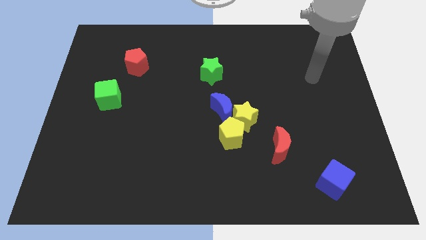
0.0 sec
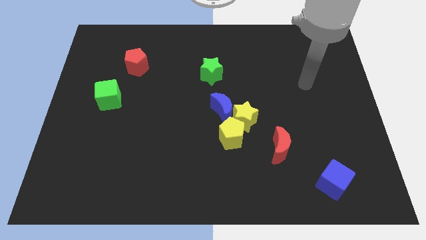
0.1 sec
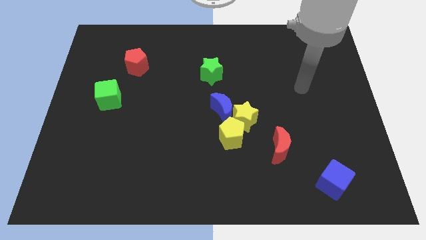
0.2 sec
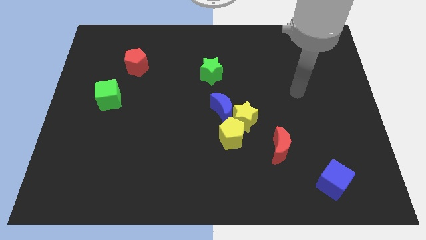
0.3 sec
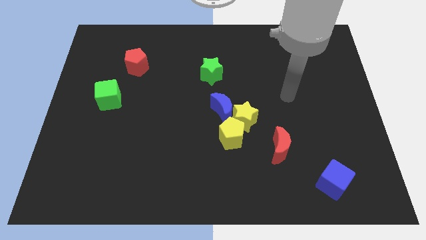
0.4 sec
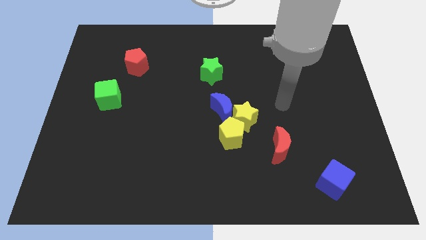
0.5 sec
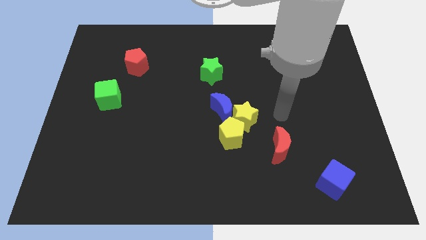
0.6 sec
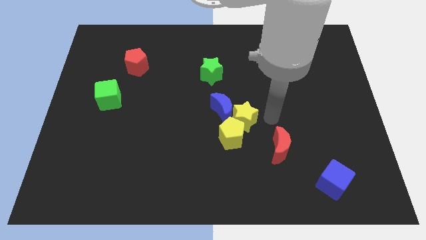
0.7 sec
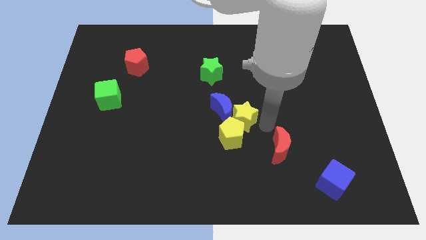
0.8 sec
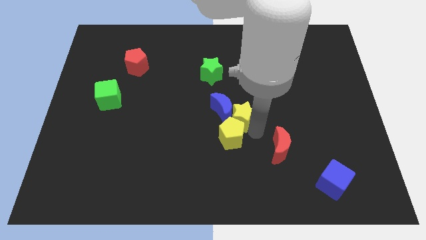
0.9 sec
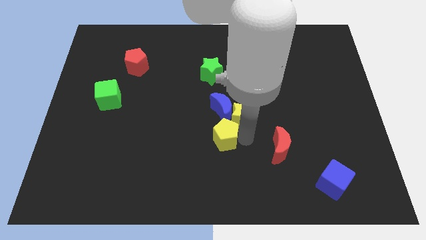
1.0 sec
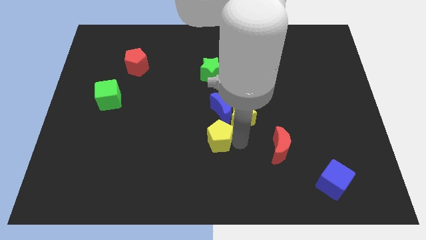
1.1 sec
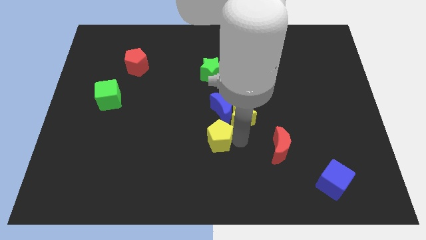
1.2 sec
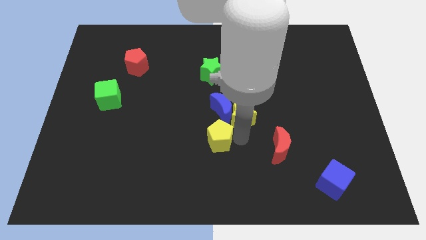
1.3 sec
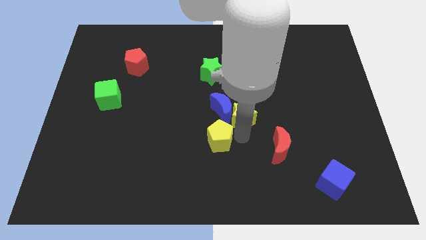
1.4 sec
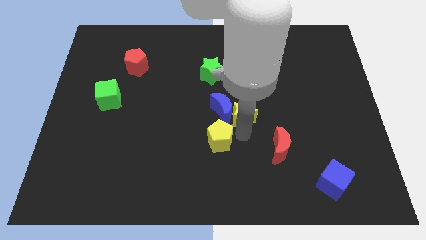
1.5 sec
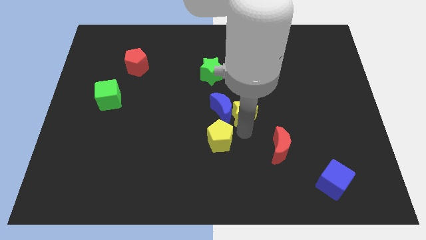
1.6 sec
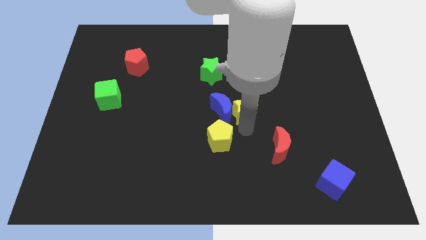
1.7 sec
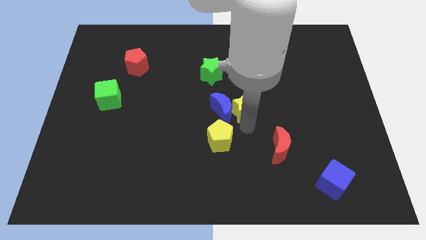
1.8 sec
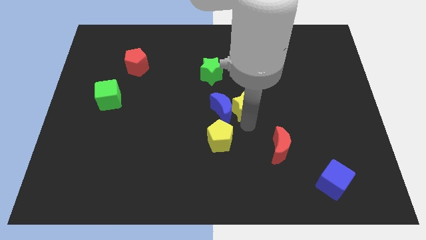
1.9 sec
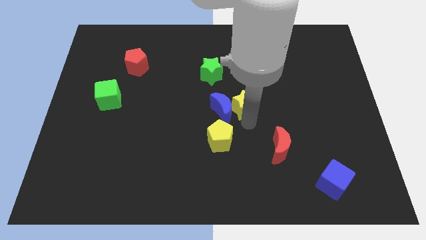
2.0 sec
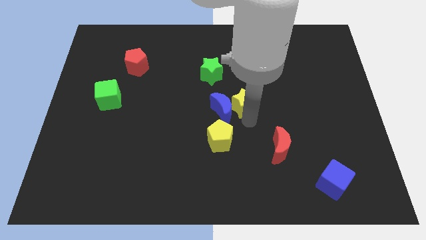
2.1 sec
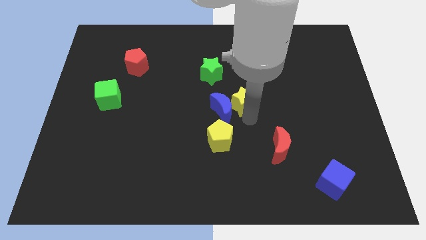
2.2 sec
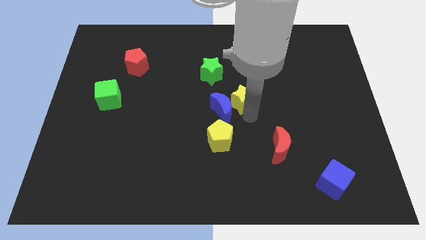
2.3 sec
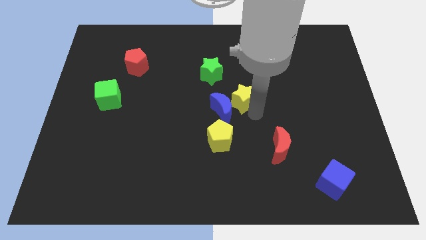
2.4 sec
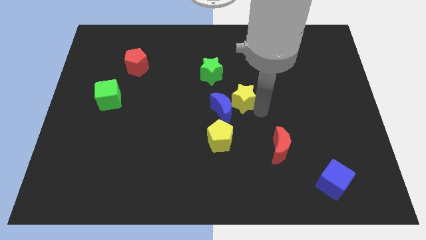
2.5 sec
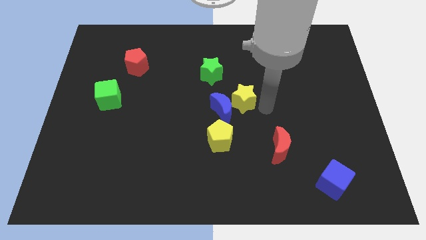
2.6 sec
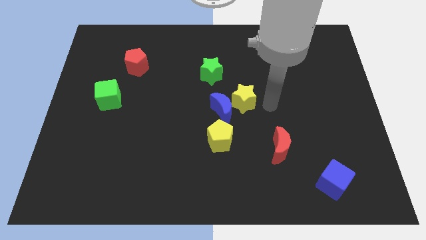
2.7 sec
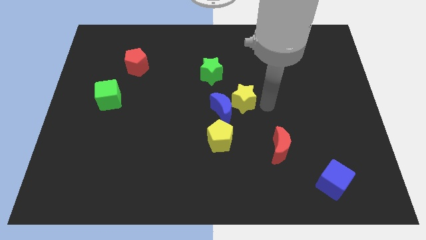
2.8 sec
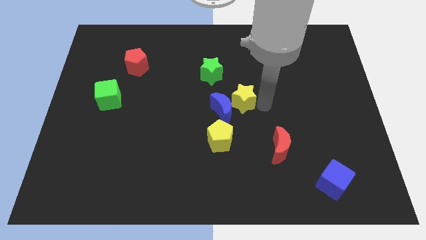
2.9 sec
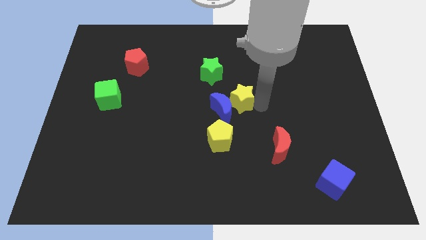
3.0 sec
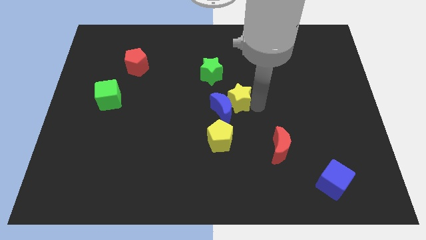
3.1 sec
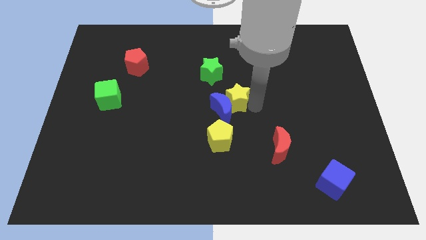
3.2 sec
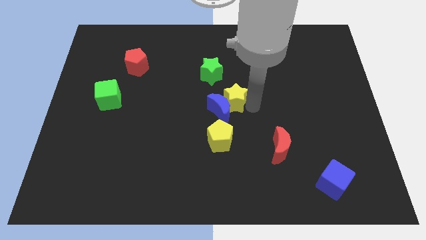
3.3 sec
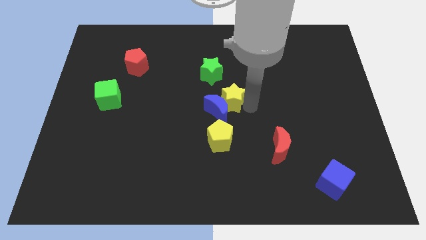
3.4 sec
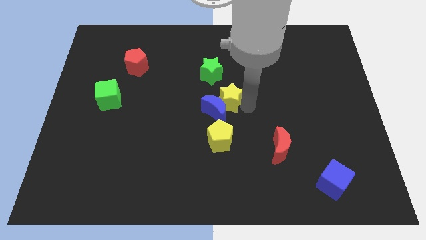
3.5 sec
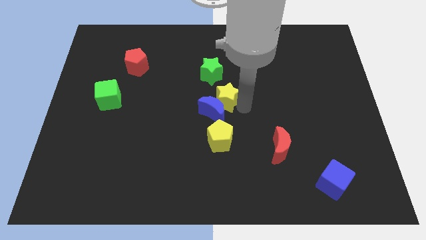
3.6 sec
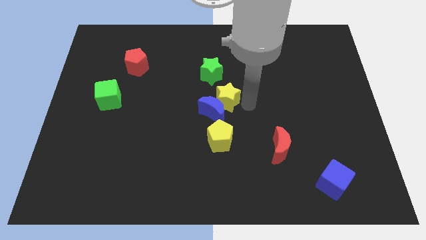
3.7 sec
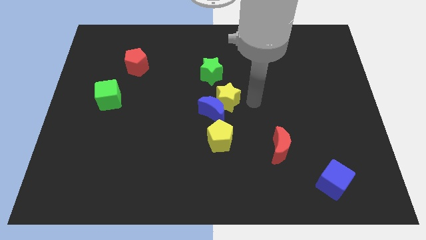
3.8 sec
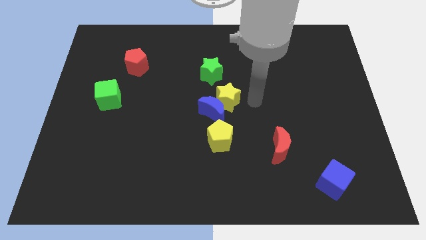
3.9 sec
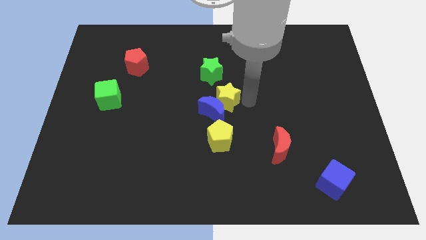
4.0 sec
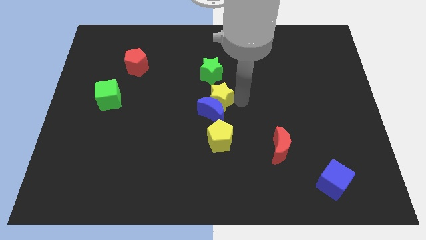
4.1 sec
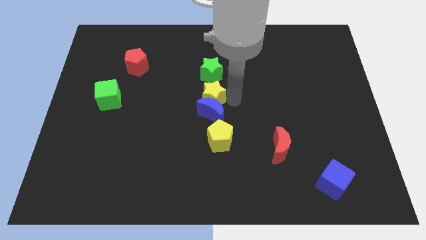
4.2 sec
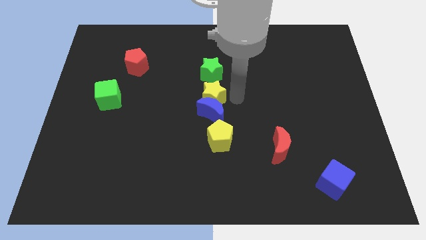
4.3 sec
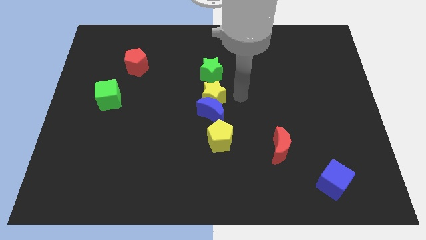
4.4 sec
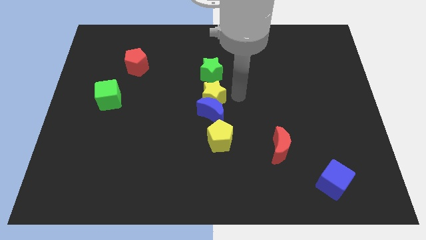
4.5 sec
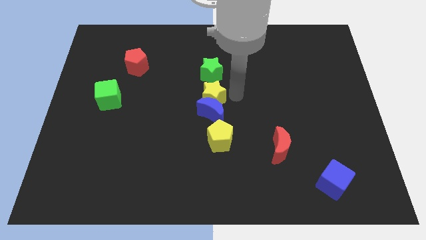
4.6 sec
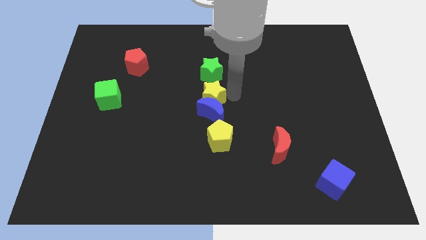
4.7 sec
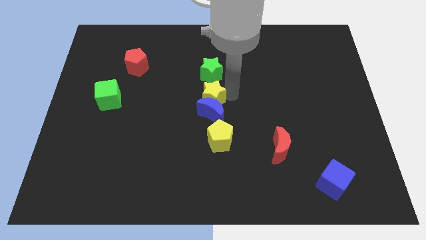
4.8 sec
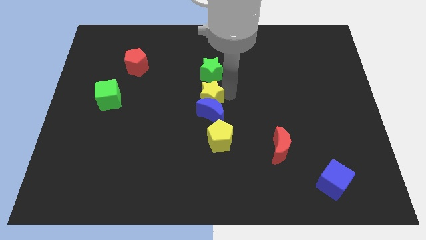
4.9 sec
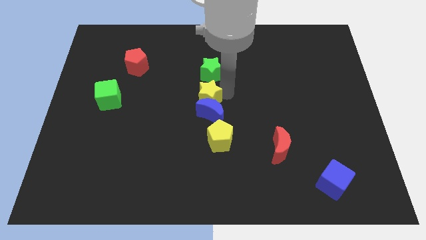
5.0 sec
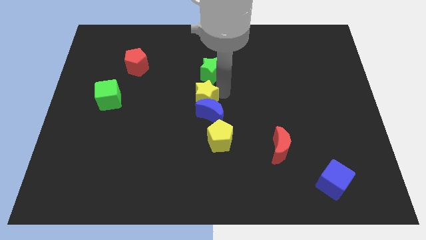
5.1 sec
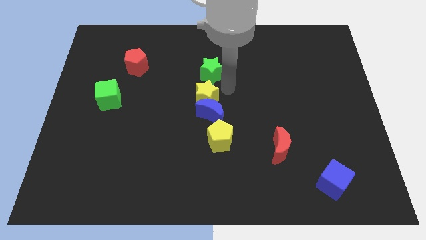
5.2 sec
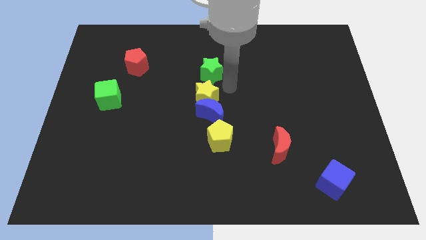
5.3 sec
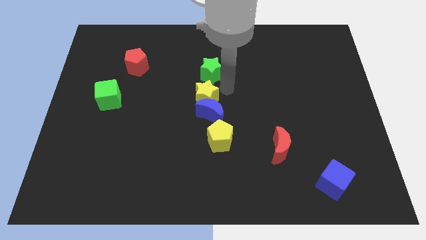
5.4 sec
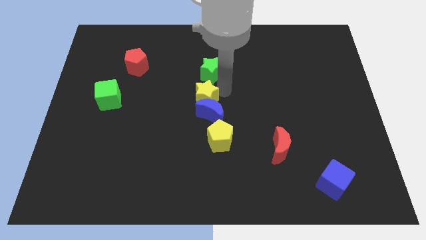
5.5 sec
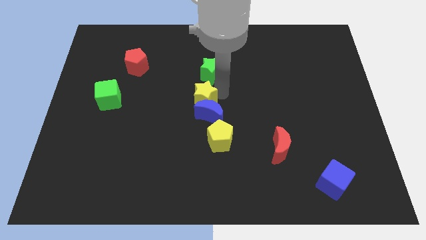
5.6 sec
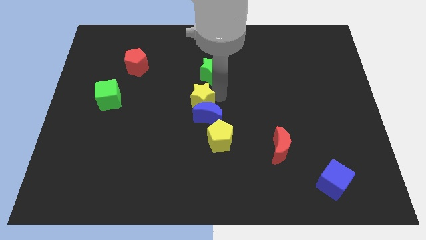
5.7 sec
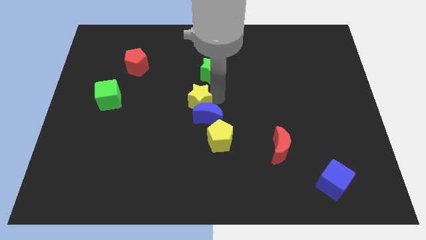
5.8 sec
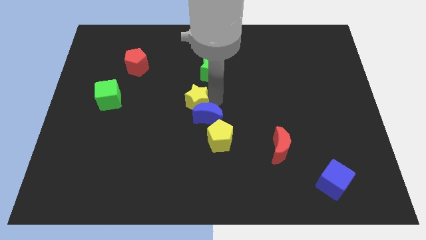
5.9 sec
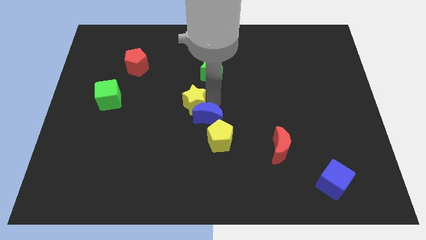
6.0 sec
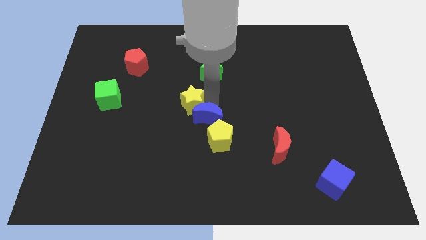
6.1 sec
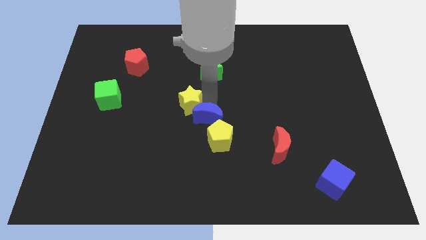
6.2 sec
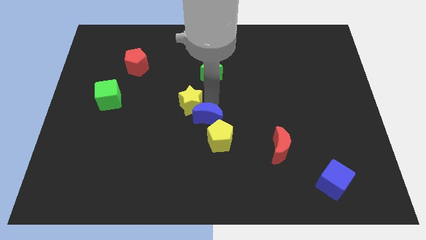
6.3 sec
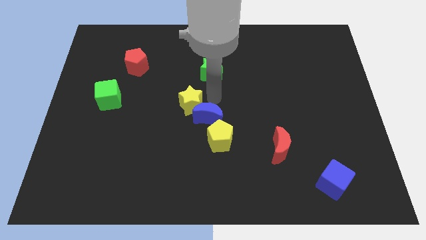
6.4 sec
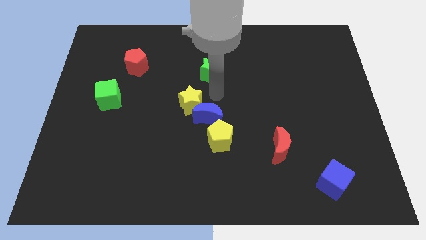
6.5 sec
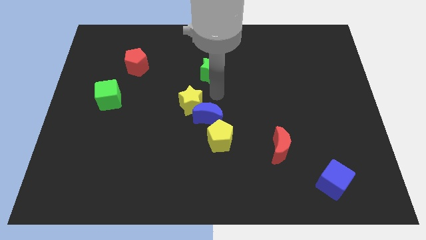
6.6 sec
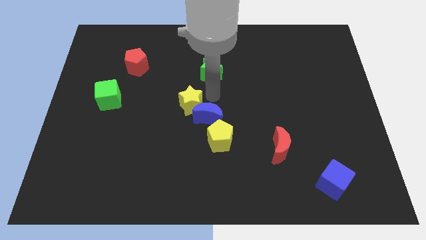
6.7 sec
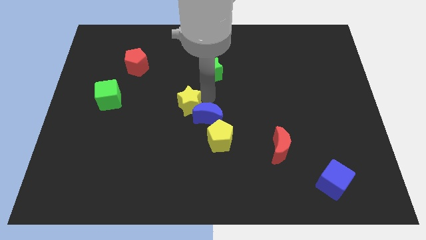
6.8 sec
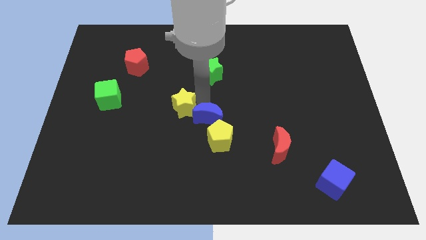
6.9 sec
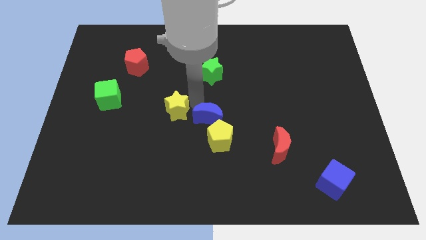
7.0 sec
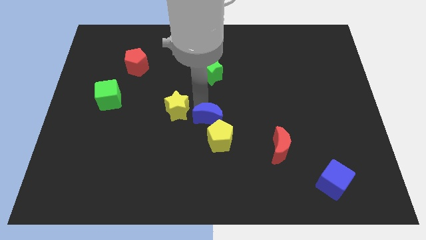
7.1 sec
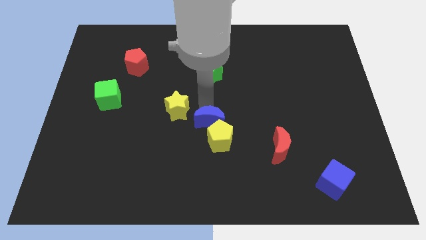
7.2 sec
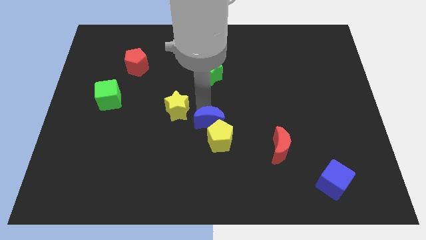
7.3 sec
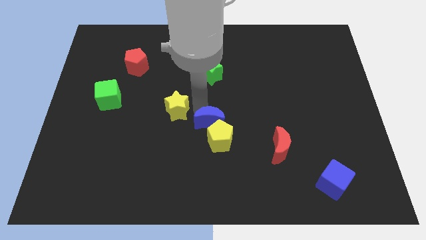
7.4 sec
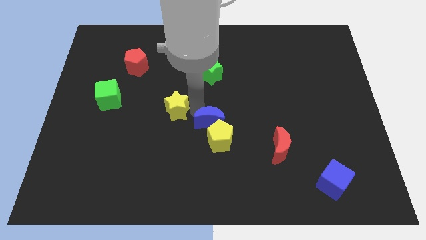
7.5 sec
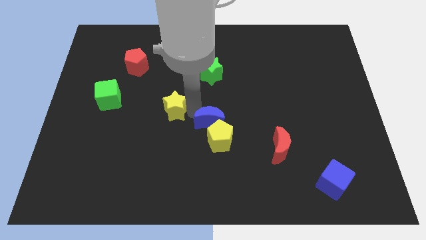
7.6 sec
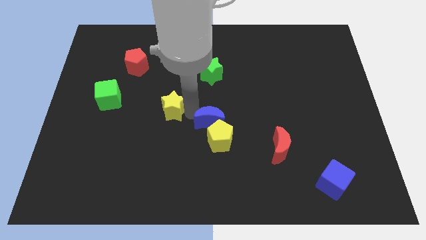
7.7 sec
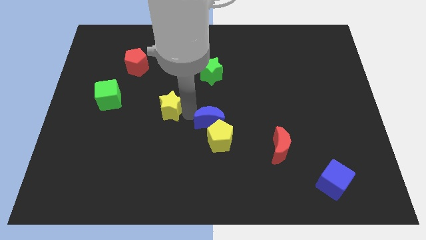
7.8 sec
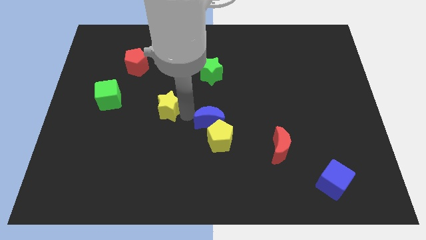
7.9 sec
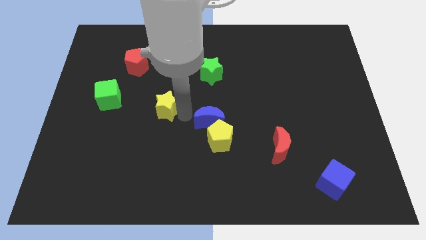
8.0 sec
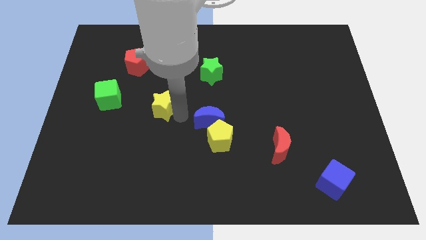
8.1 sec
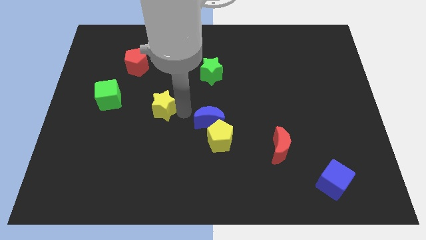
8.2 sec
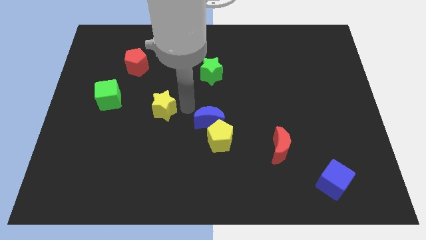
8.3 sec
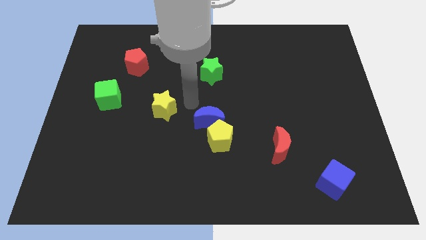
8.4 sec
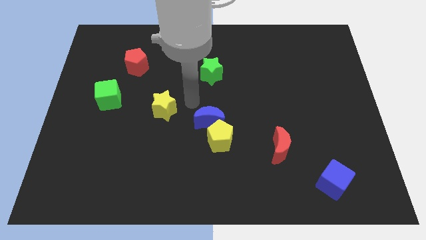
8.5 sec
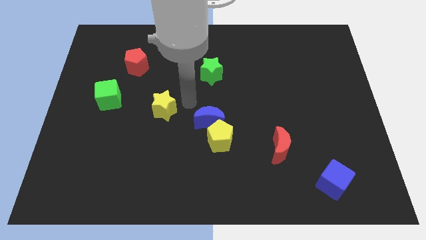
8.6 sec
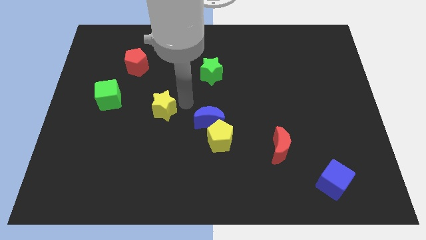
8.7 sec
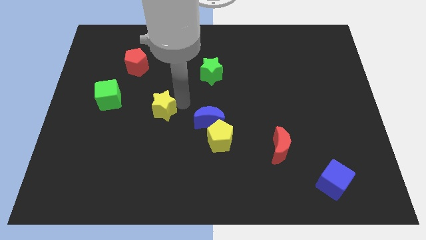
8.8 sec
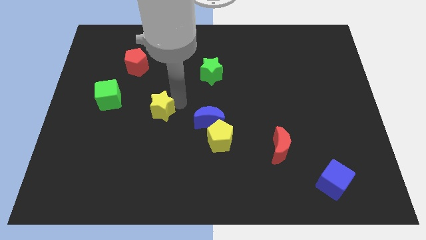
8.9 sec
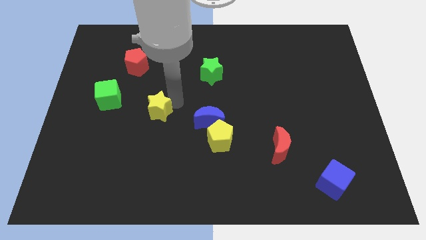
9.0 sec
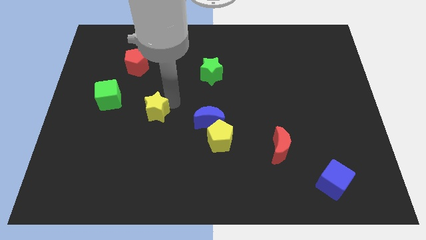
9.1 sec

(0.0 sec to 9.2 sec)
push the yellow star to the left
